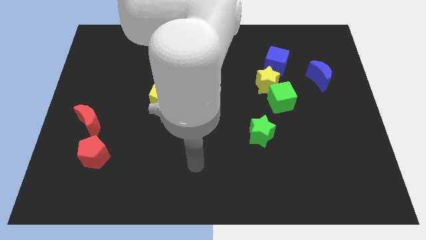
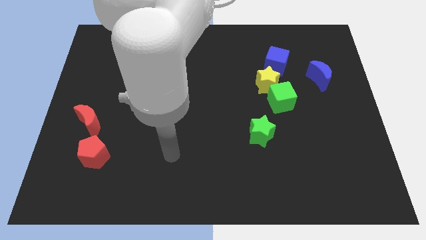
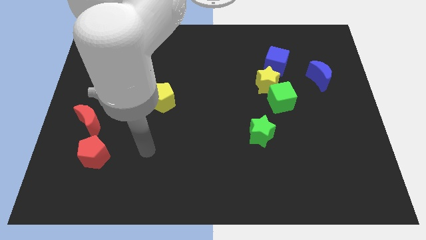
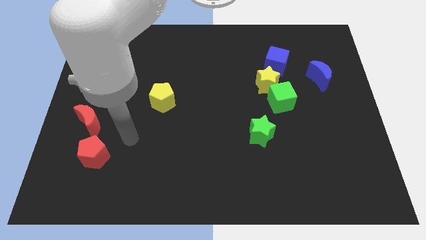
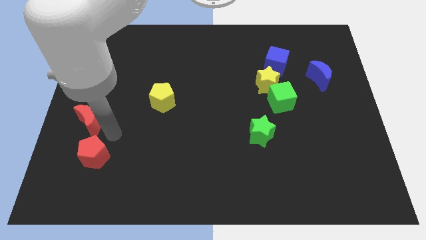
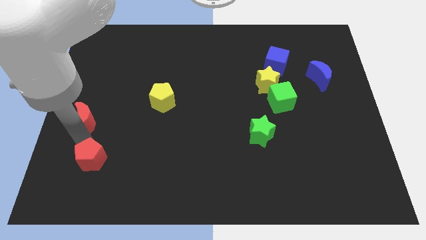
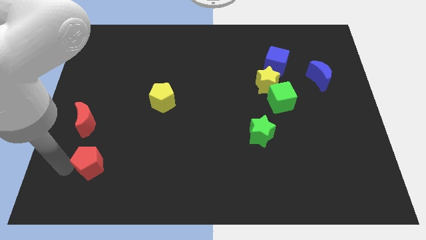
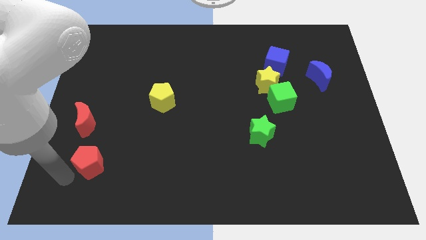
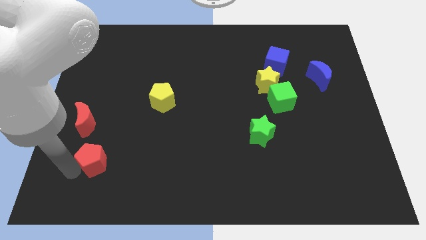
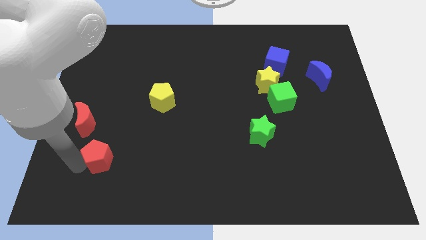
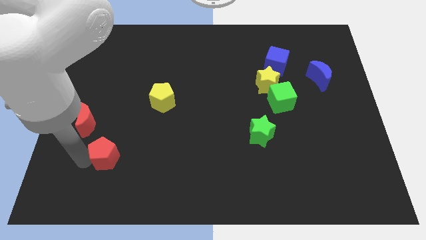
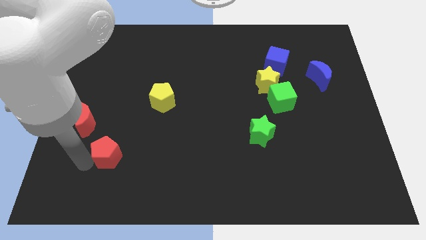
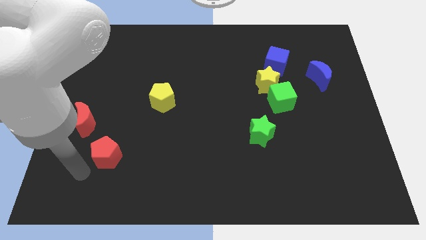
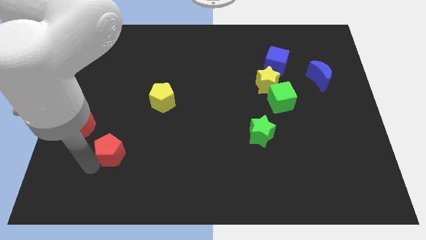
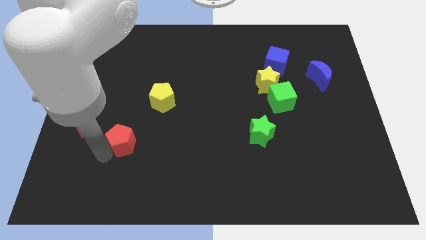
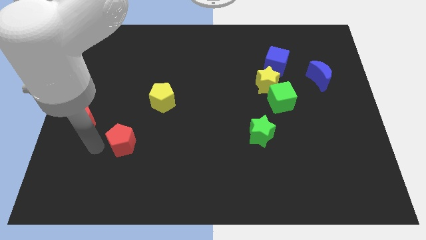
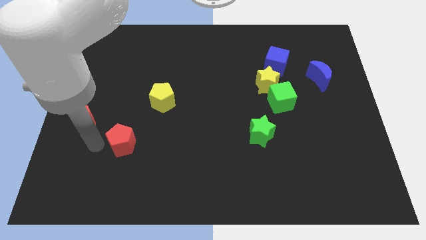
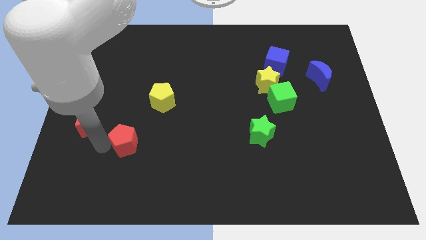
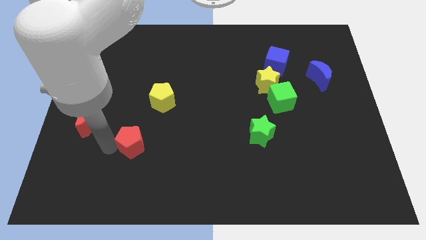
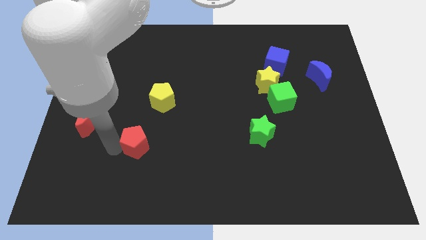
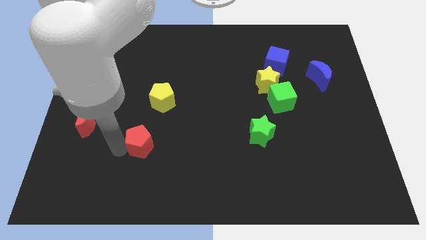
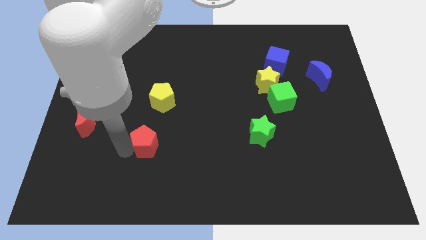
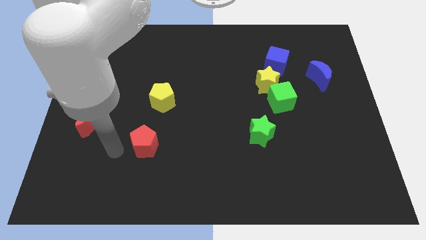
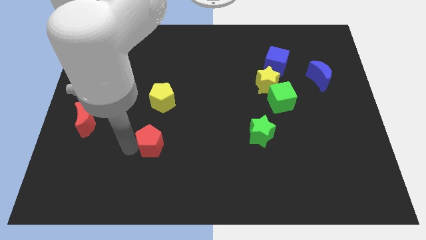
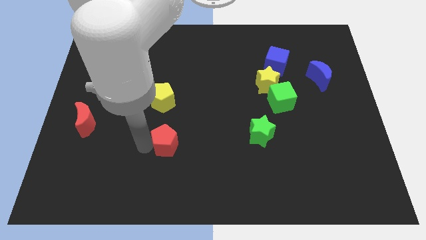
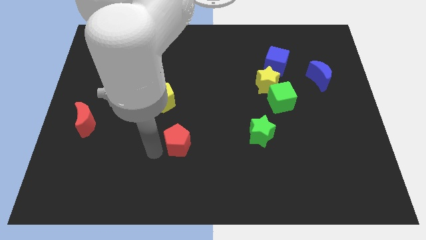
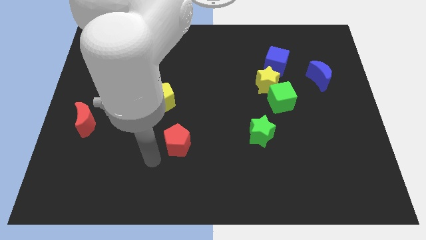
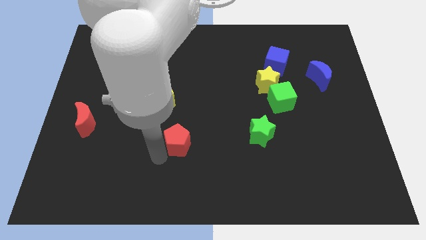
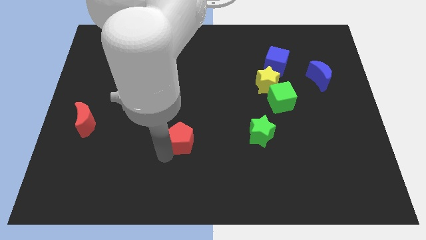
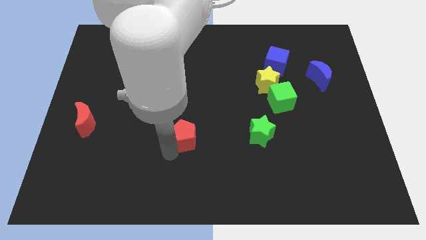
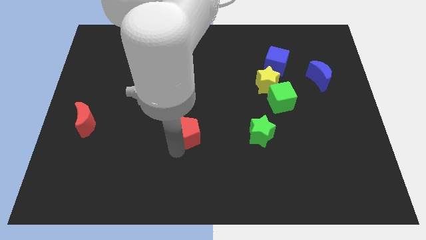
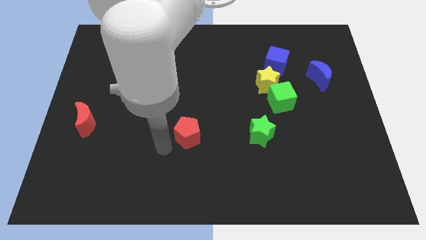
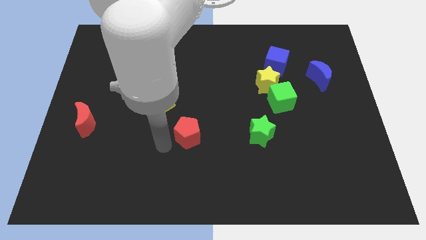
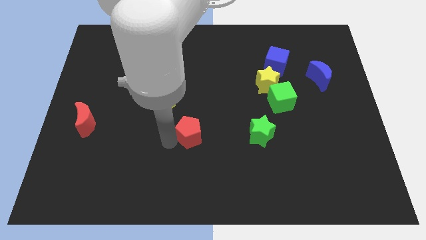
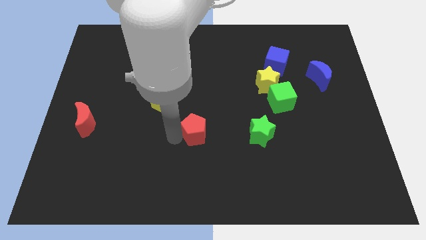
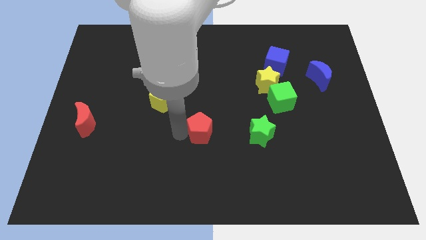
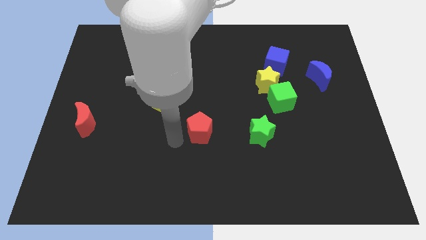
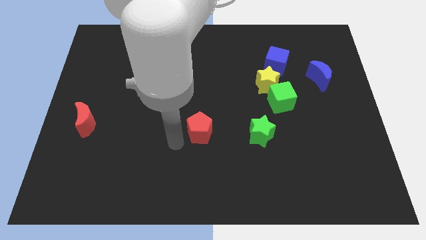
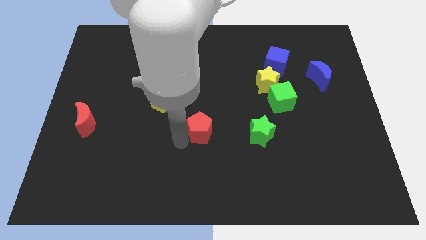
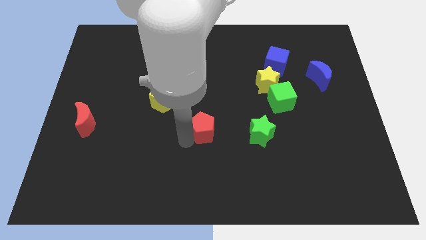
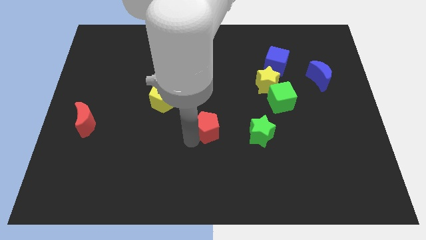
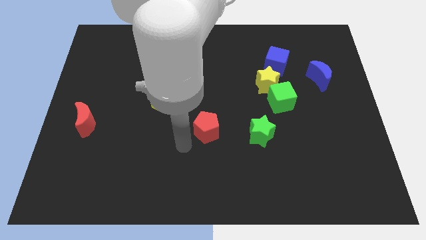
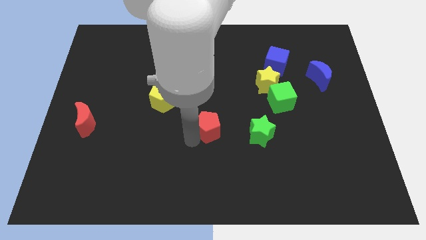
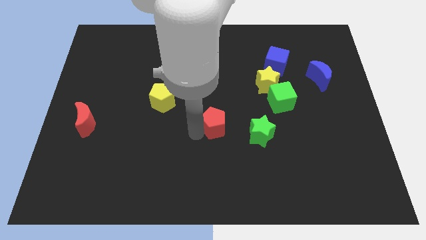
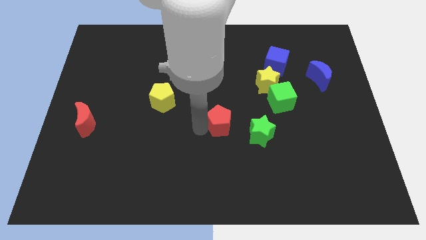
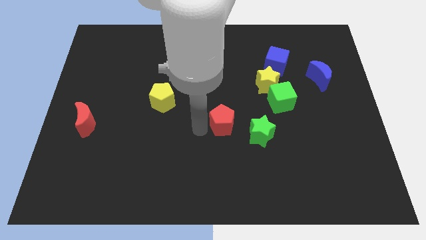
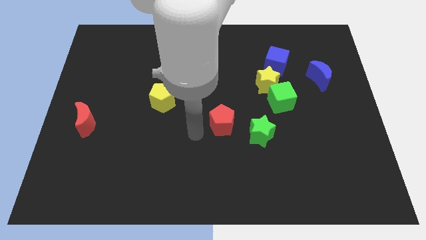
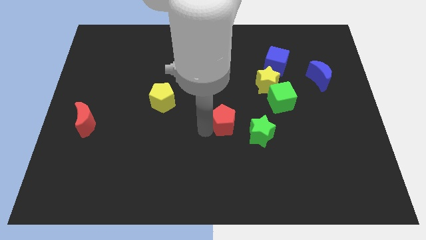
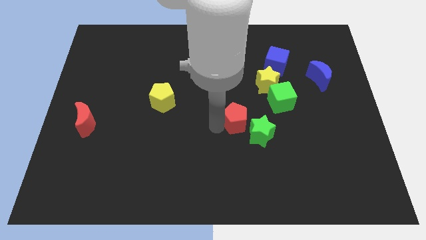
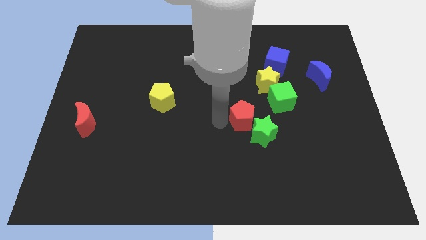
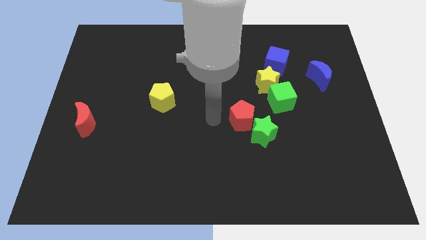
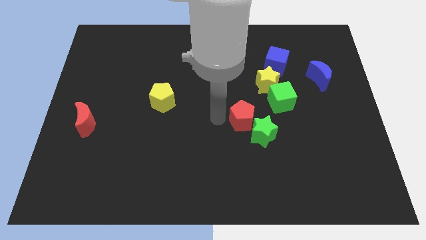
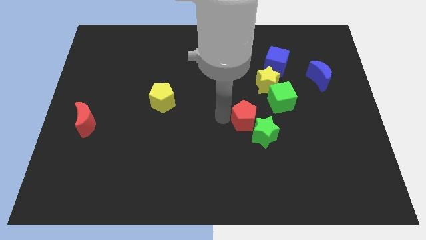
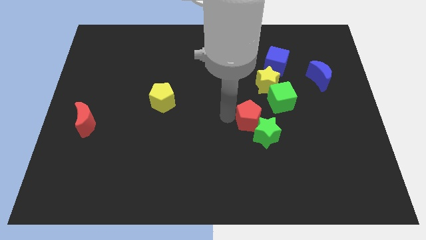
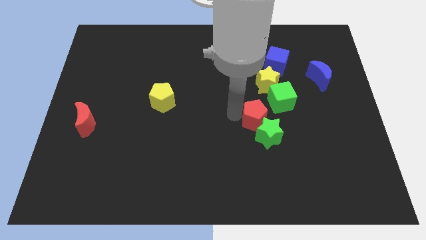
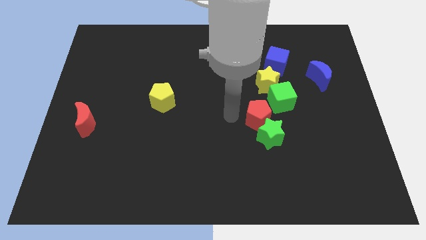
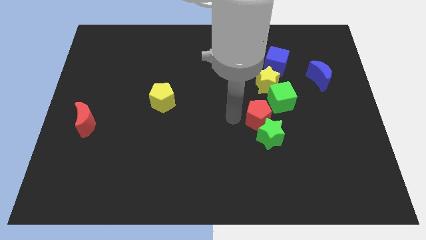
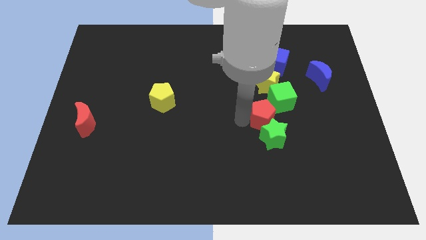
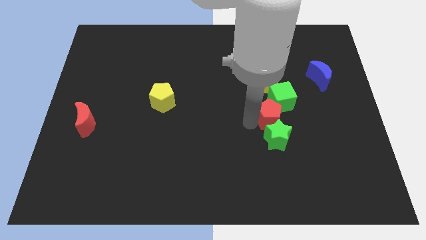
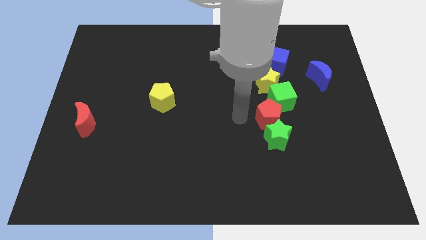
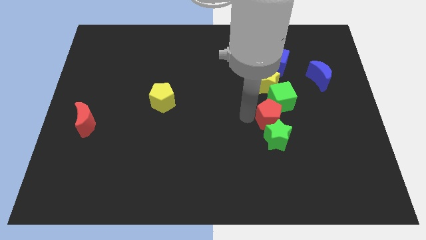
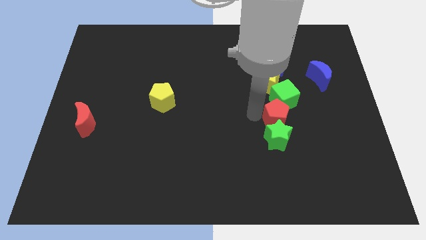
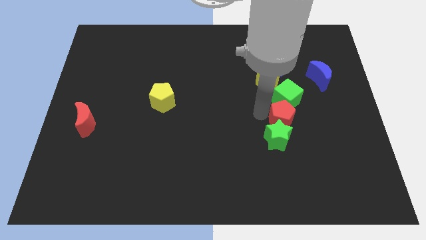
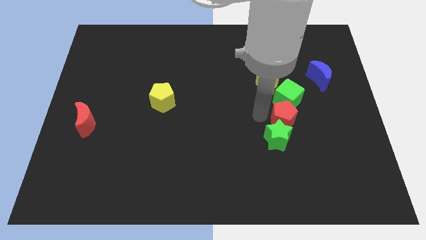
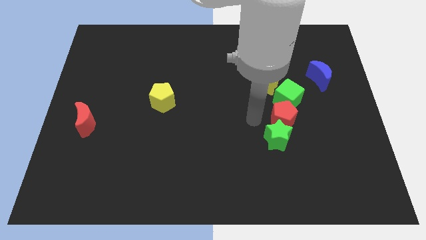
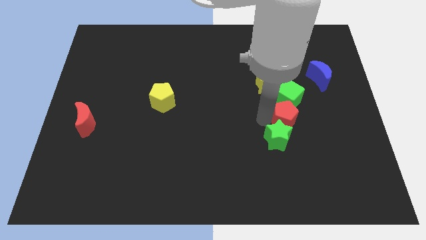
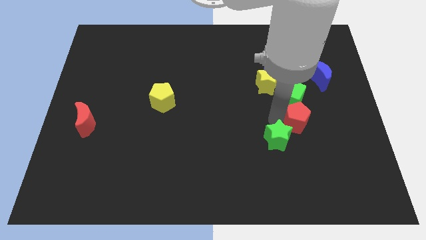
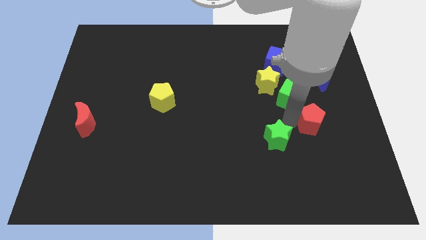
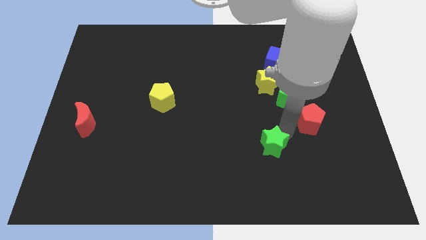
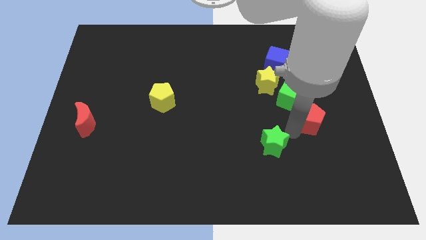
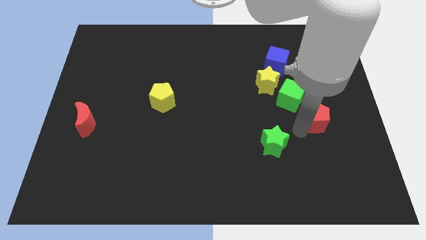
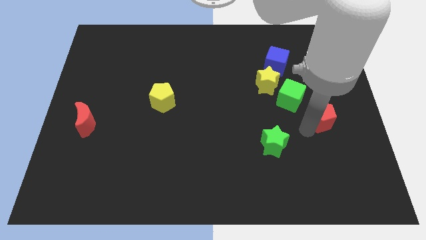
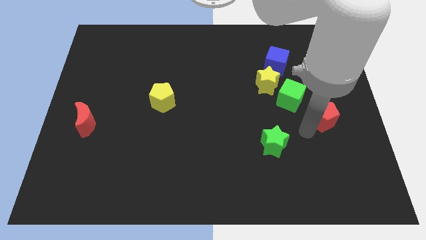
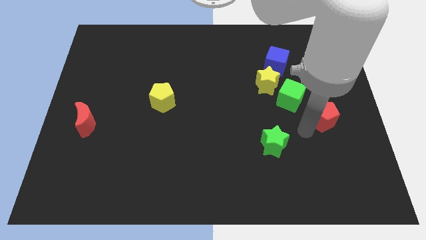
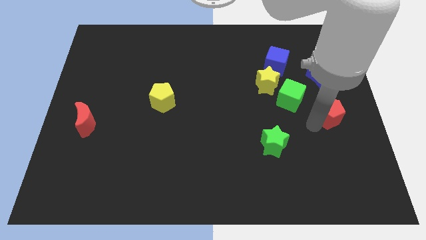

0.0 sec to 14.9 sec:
slide the red pentagon to the right side of the board
